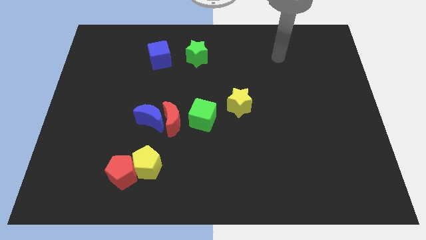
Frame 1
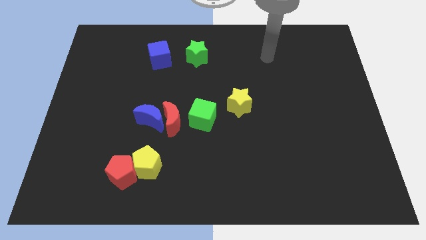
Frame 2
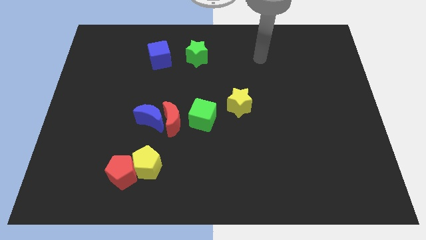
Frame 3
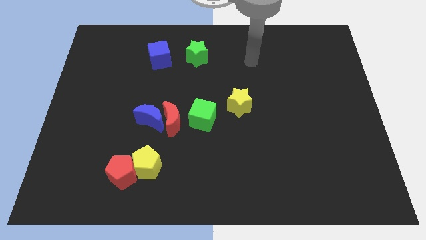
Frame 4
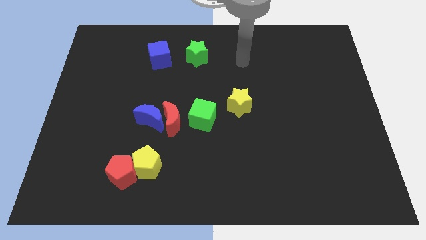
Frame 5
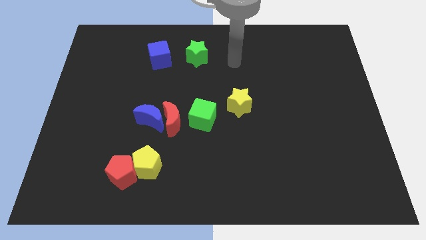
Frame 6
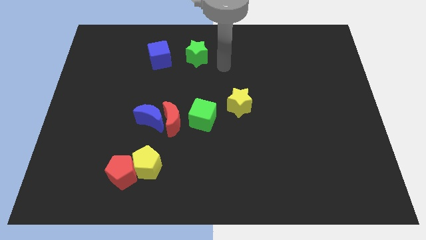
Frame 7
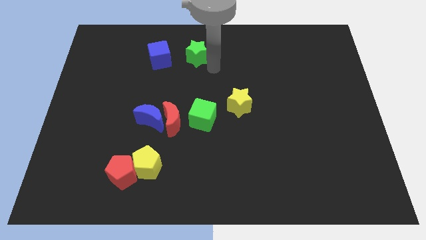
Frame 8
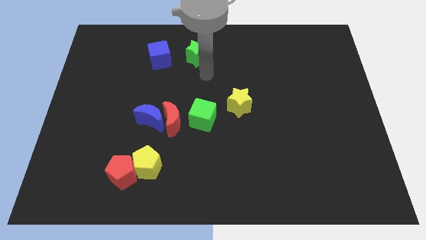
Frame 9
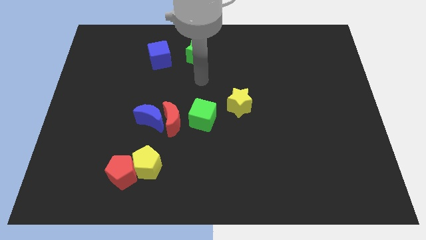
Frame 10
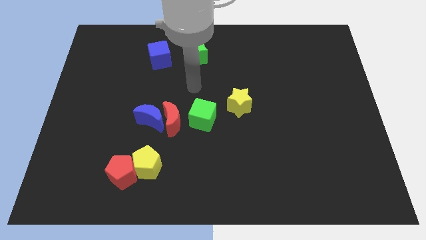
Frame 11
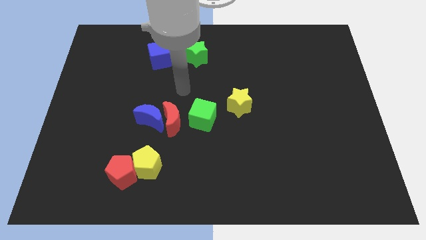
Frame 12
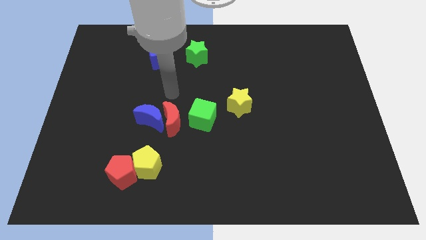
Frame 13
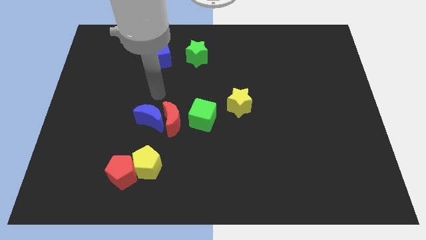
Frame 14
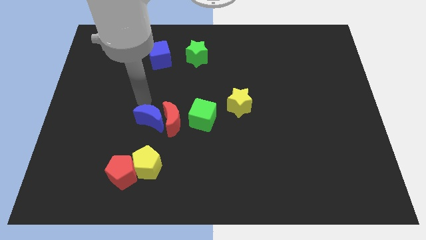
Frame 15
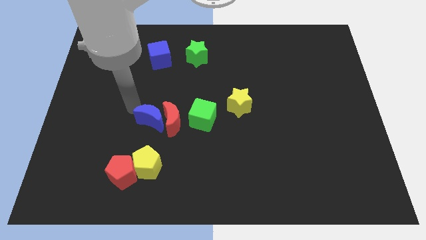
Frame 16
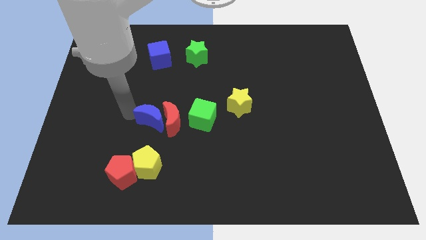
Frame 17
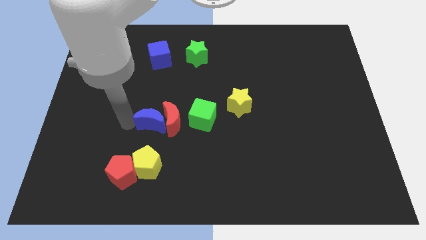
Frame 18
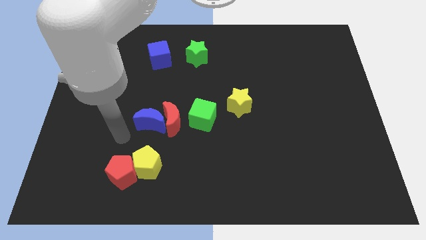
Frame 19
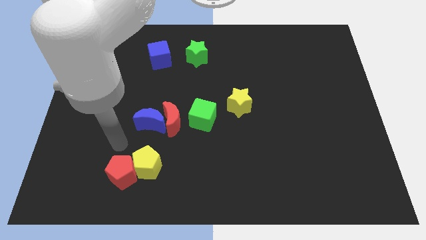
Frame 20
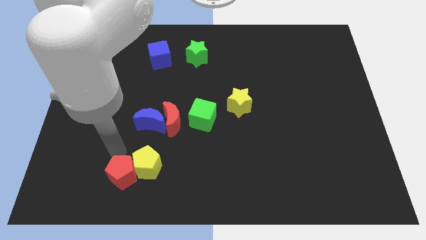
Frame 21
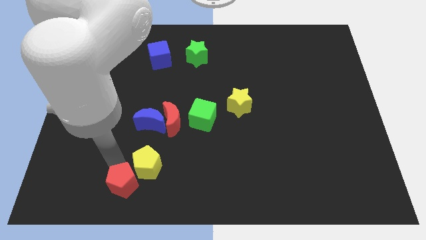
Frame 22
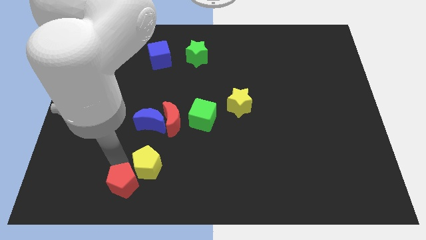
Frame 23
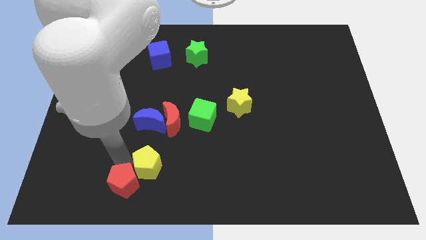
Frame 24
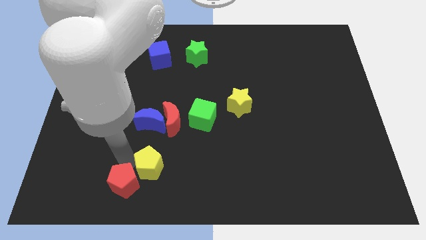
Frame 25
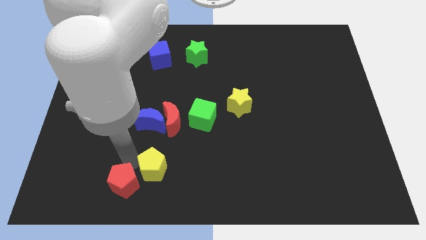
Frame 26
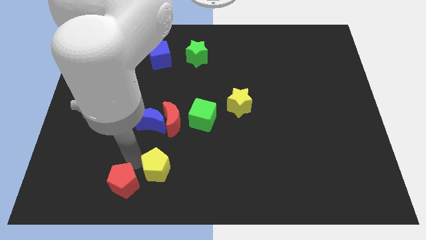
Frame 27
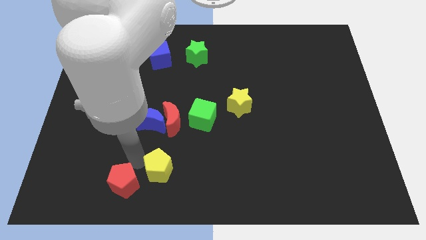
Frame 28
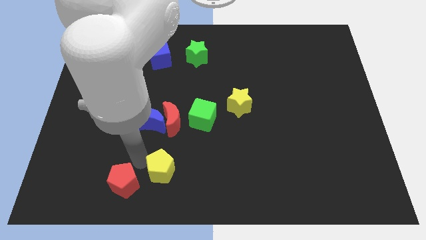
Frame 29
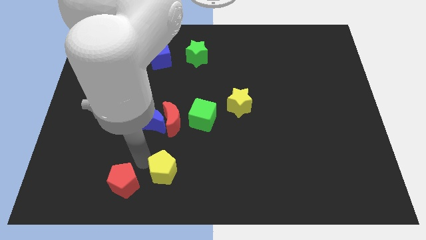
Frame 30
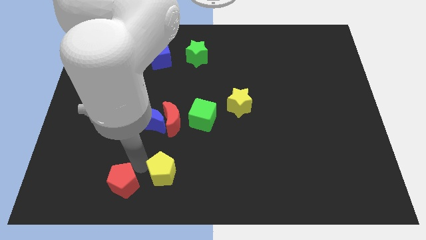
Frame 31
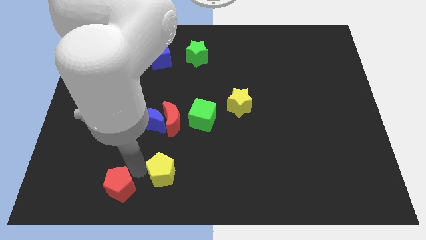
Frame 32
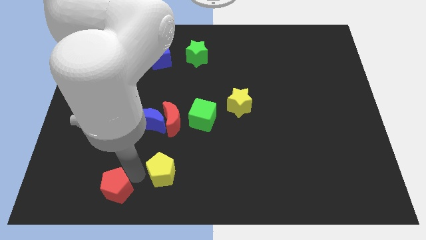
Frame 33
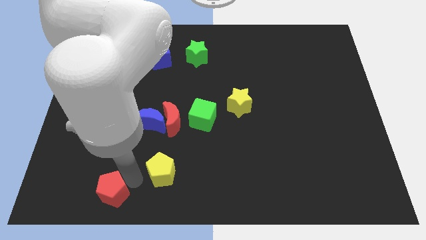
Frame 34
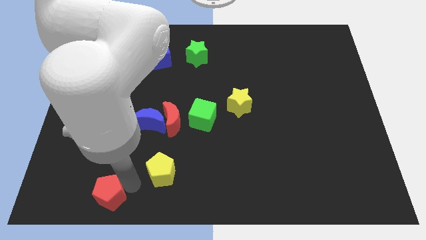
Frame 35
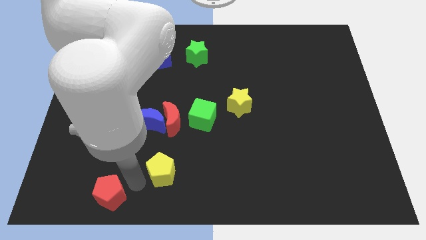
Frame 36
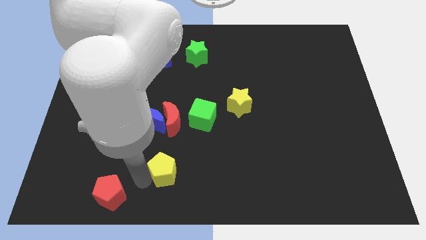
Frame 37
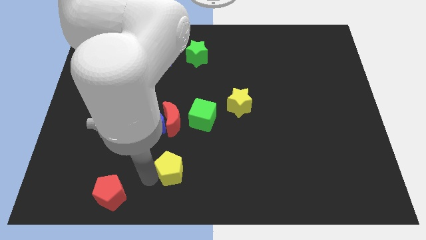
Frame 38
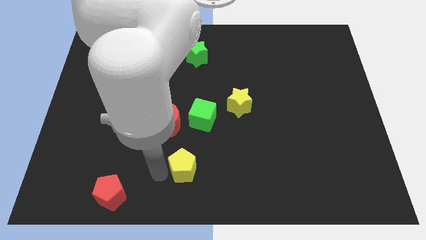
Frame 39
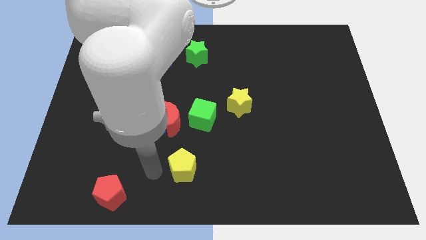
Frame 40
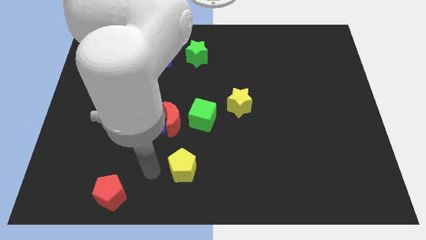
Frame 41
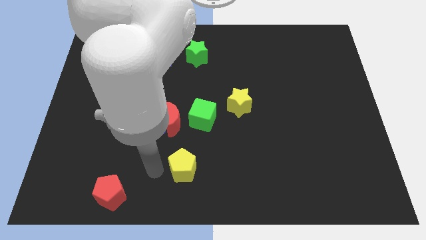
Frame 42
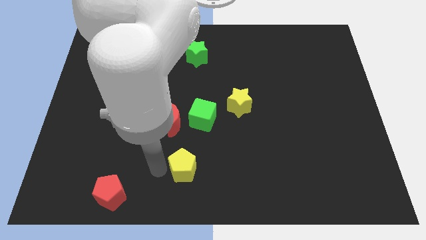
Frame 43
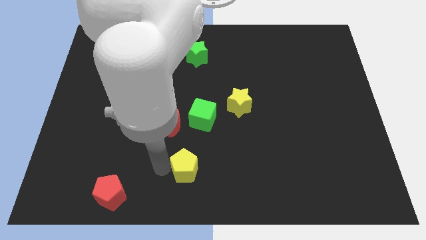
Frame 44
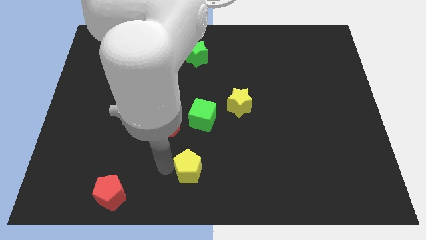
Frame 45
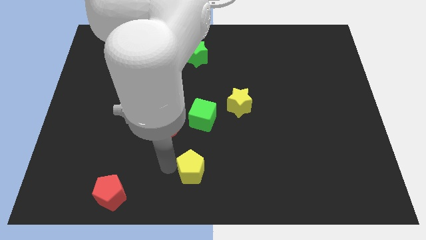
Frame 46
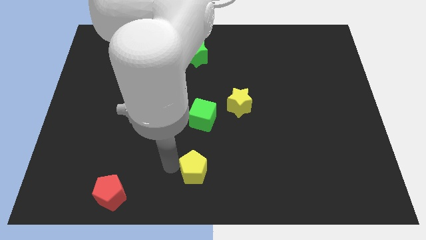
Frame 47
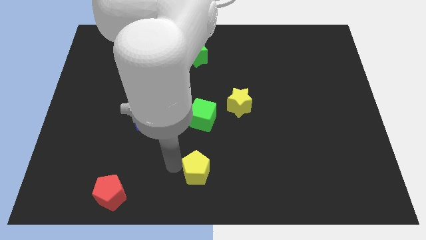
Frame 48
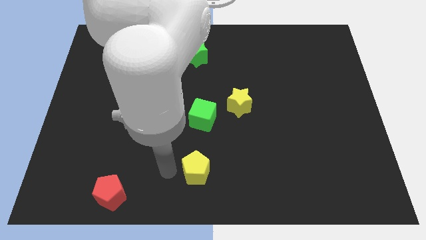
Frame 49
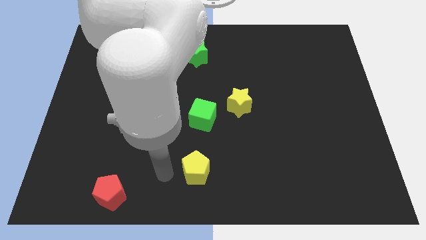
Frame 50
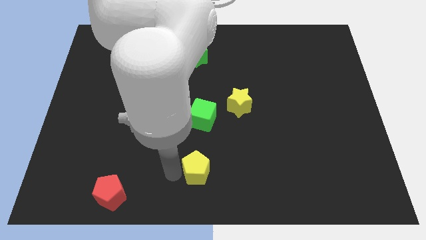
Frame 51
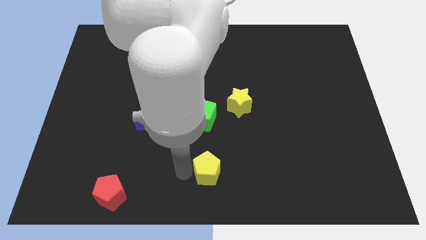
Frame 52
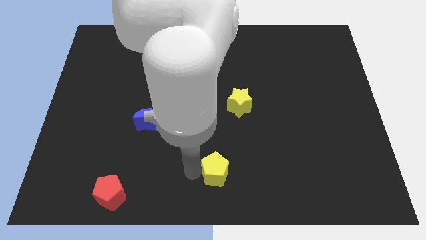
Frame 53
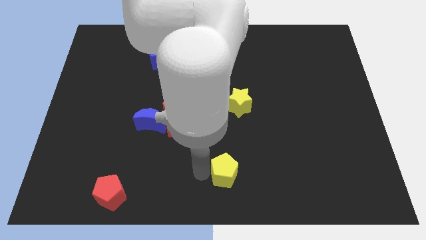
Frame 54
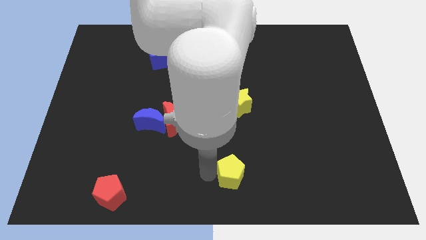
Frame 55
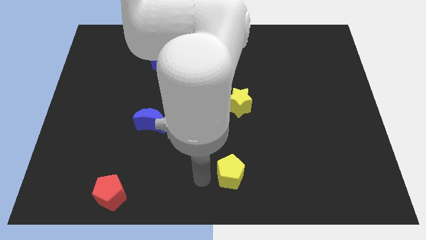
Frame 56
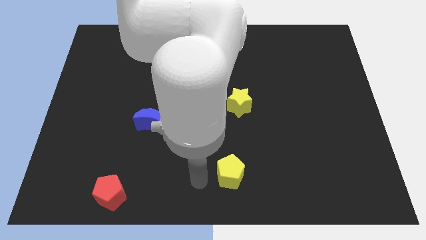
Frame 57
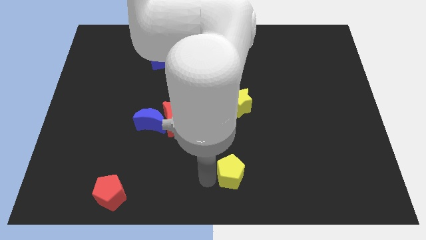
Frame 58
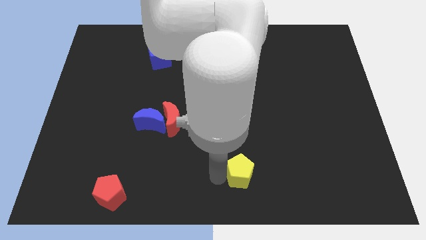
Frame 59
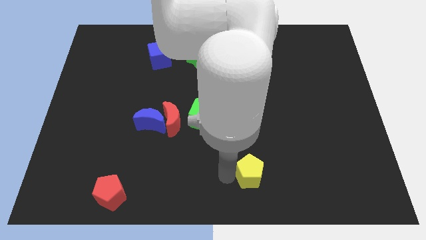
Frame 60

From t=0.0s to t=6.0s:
move the yellow pentagon right

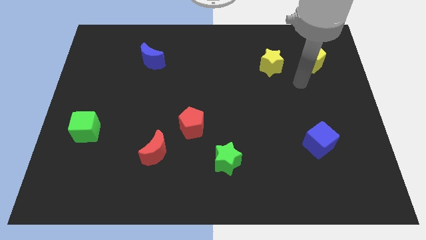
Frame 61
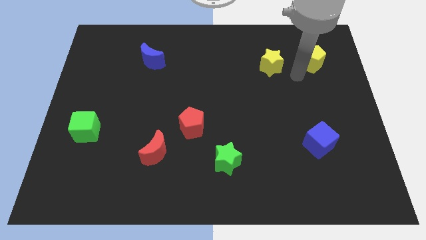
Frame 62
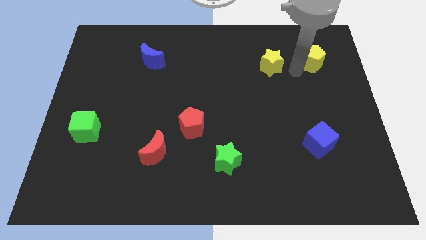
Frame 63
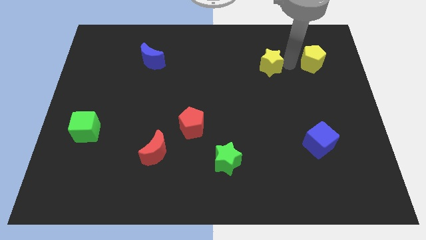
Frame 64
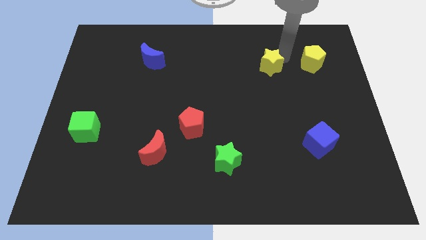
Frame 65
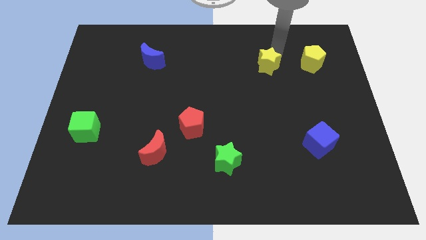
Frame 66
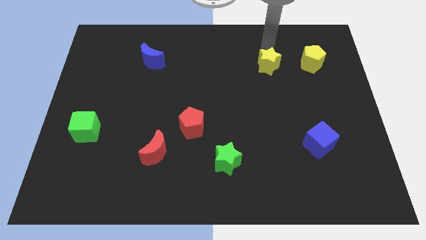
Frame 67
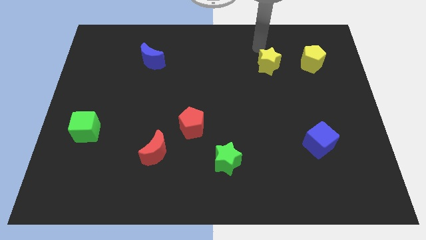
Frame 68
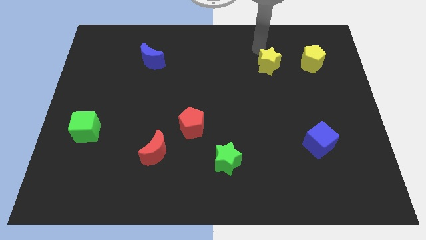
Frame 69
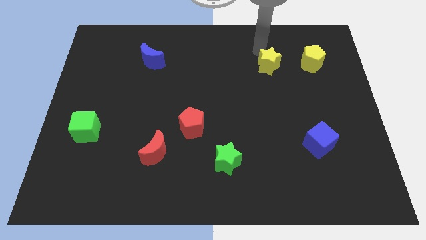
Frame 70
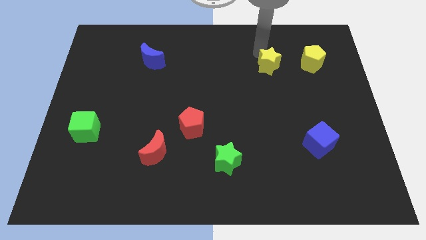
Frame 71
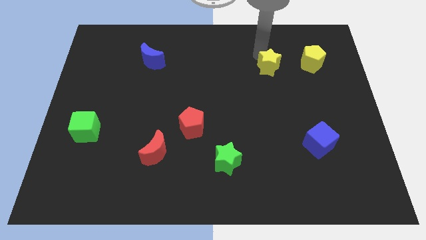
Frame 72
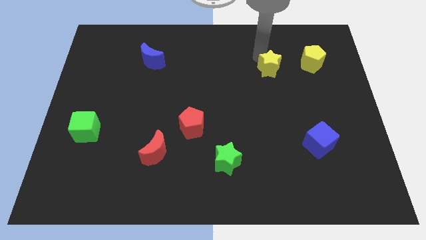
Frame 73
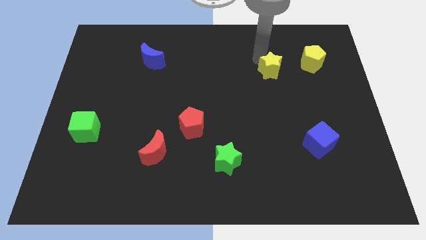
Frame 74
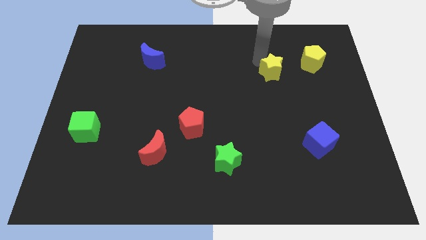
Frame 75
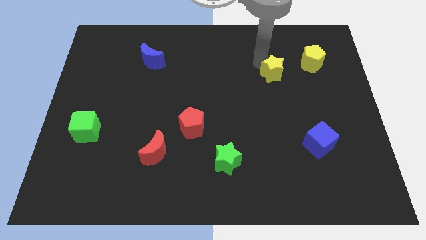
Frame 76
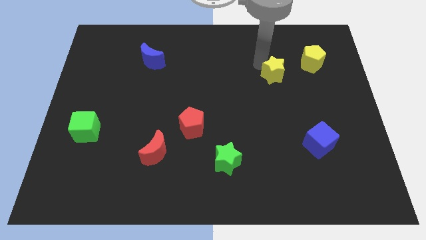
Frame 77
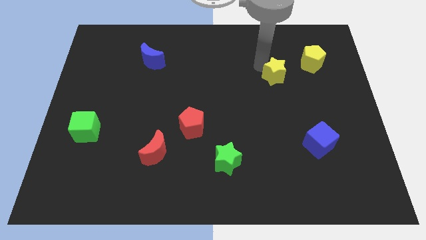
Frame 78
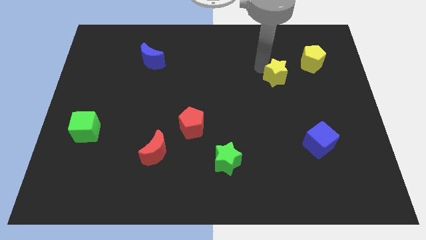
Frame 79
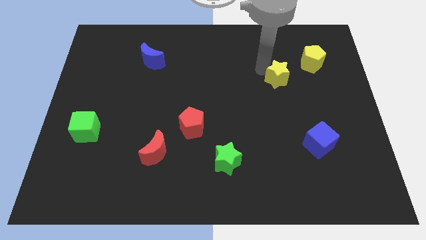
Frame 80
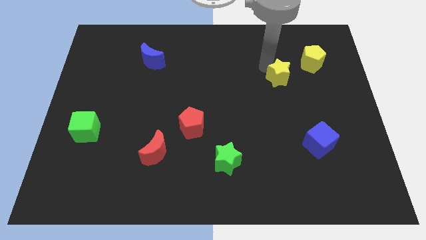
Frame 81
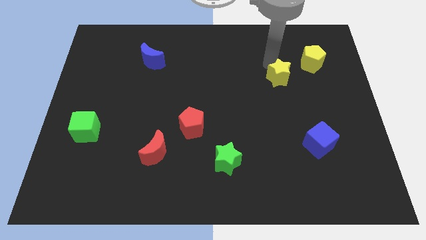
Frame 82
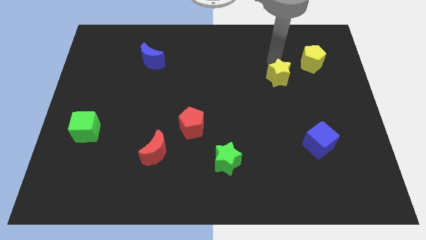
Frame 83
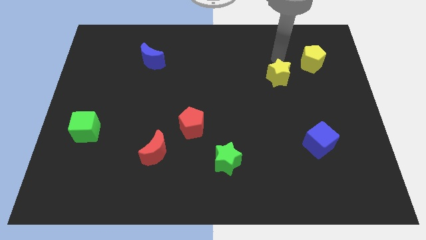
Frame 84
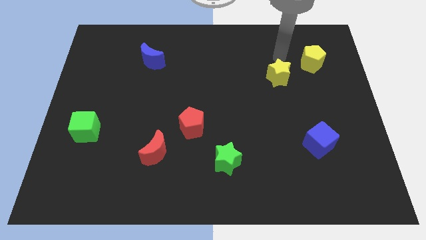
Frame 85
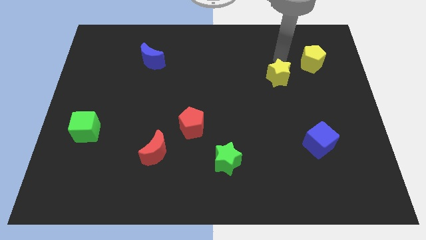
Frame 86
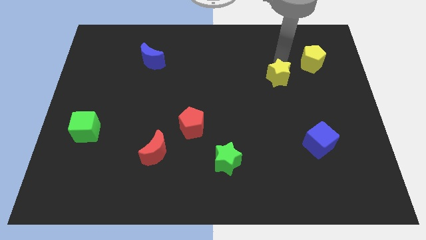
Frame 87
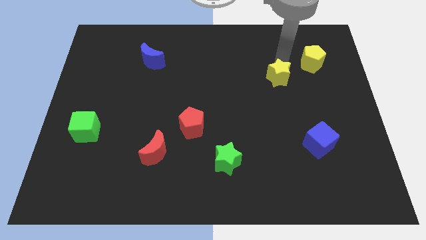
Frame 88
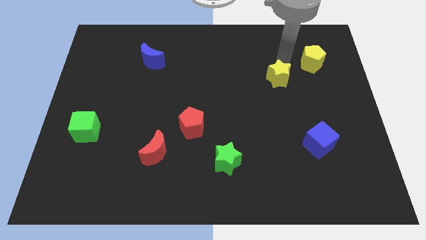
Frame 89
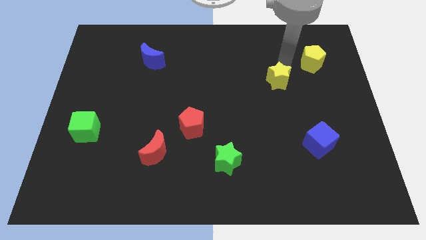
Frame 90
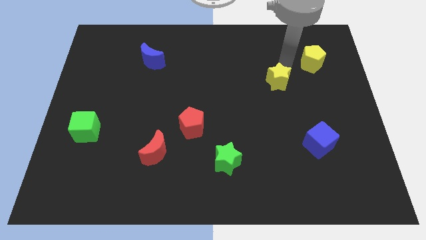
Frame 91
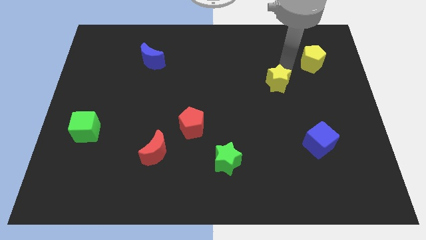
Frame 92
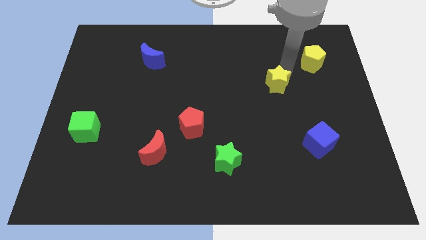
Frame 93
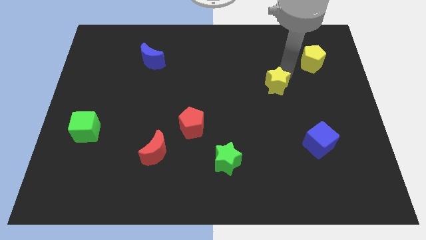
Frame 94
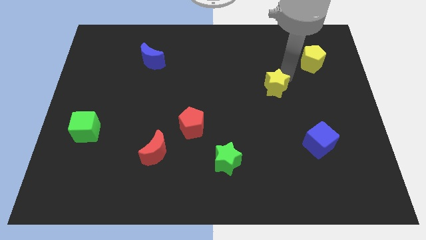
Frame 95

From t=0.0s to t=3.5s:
move the yellow star downwards a little
